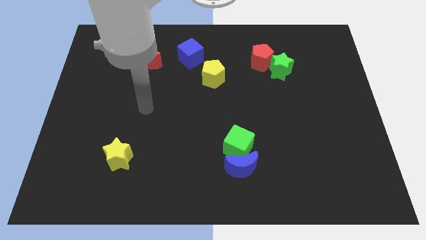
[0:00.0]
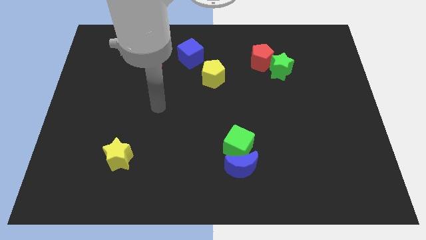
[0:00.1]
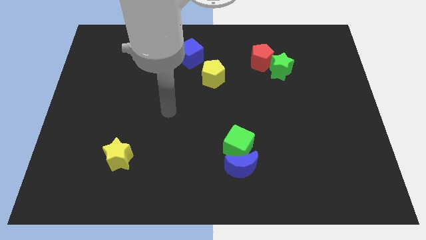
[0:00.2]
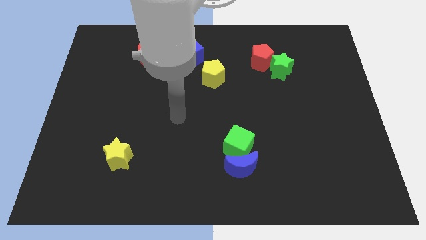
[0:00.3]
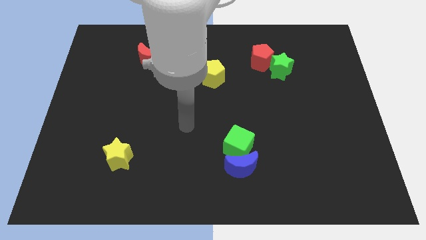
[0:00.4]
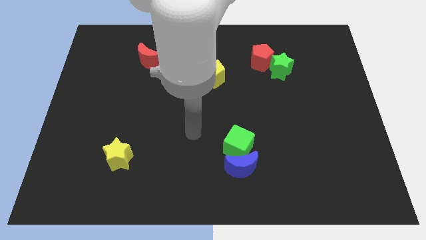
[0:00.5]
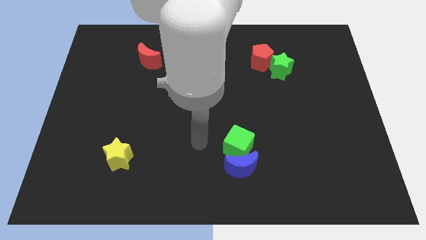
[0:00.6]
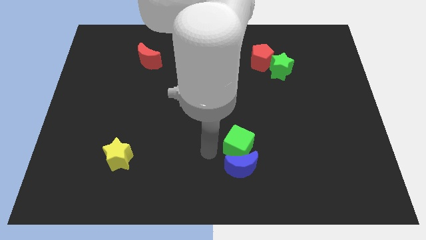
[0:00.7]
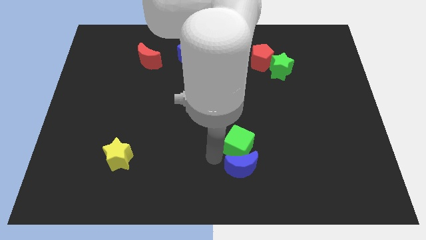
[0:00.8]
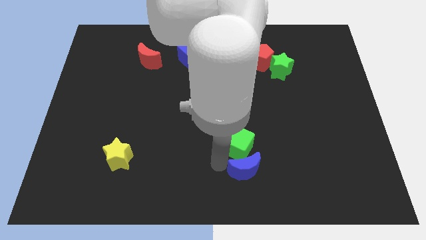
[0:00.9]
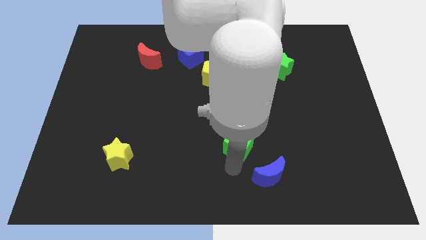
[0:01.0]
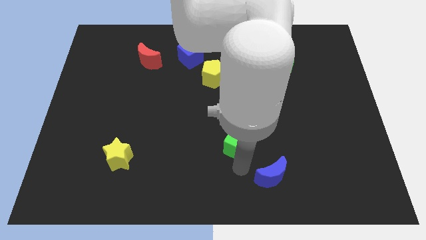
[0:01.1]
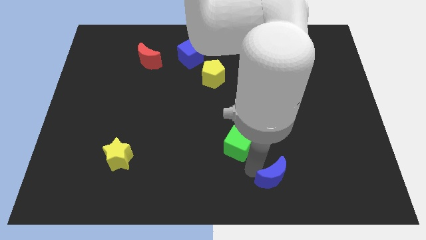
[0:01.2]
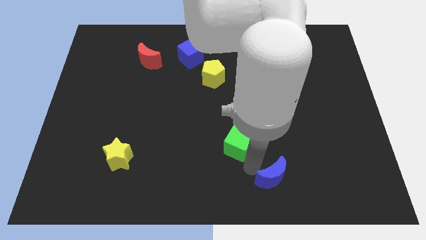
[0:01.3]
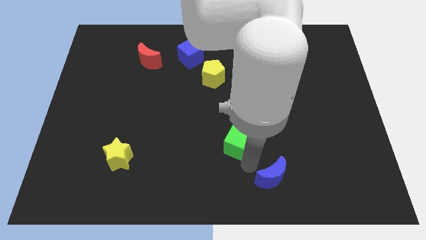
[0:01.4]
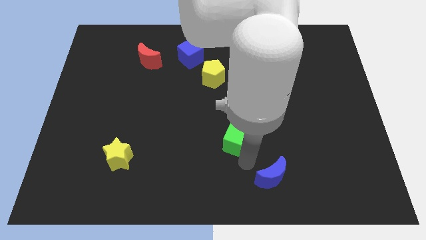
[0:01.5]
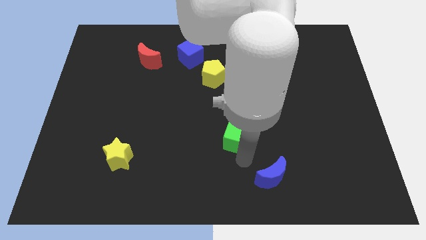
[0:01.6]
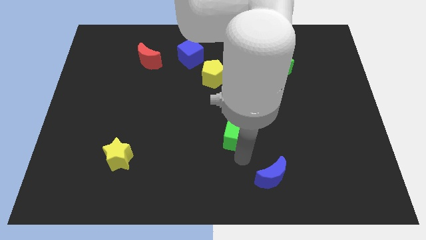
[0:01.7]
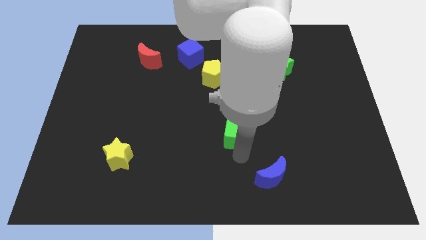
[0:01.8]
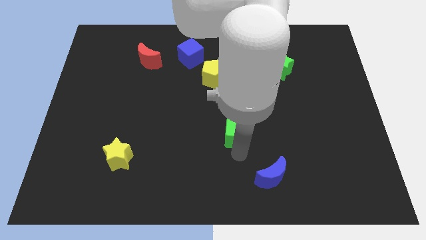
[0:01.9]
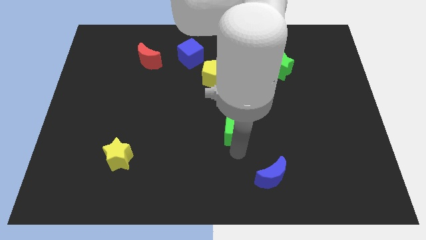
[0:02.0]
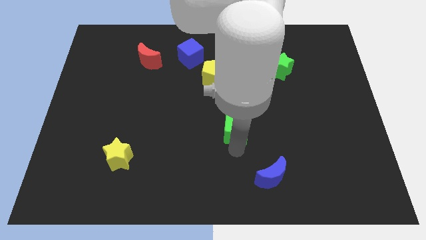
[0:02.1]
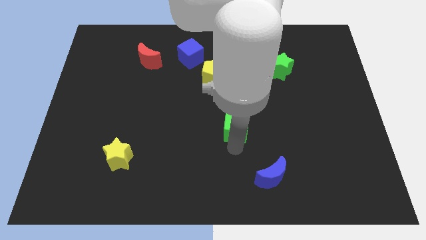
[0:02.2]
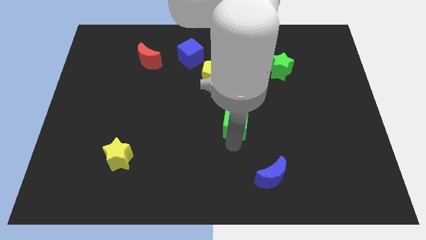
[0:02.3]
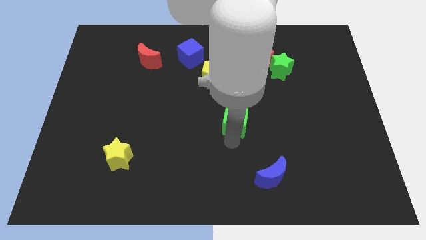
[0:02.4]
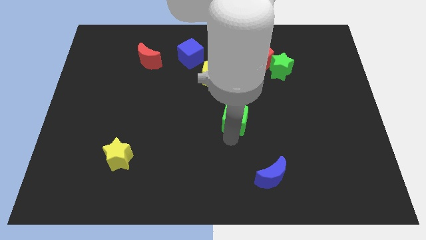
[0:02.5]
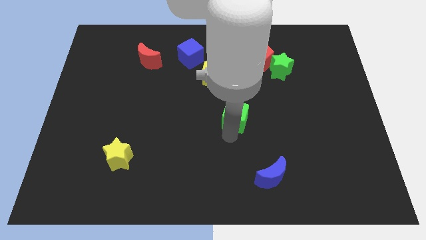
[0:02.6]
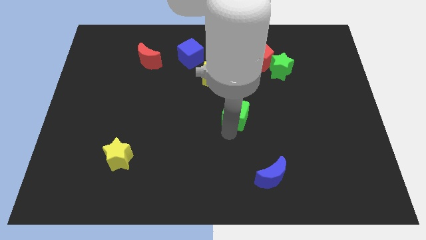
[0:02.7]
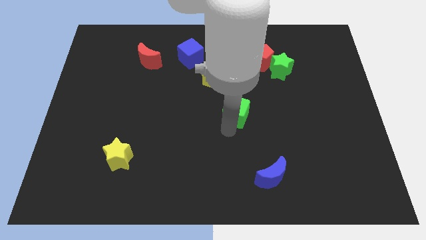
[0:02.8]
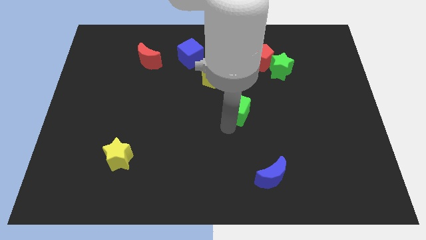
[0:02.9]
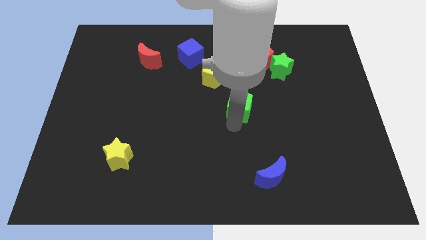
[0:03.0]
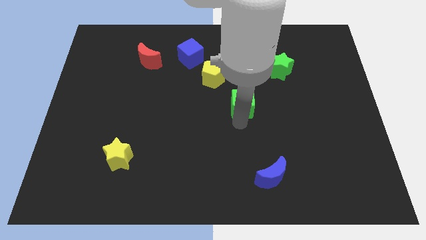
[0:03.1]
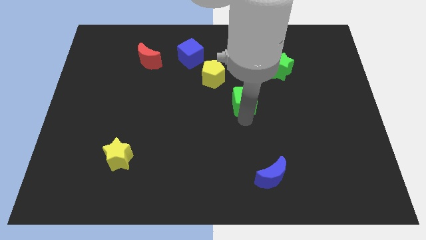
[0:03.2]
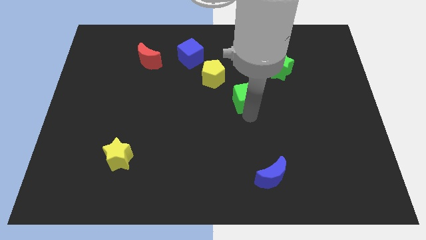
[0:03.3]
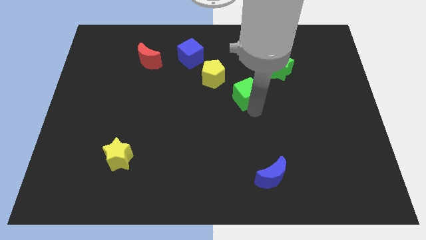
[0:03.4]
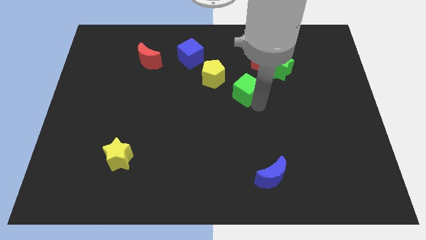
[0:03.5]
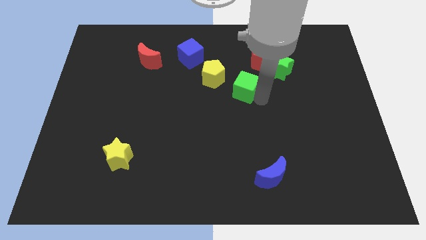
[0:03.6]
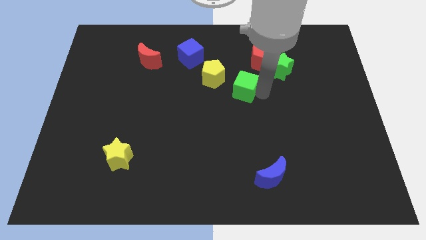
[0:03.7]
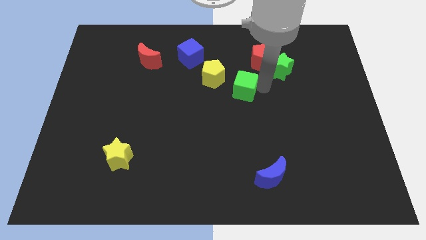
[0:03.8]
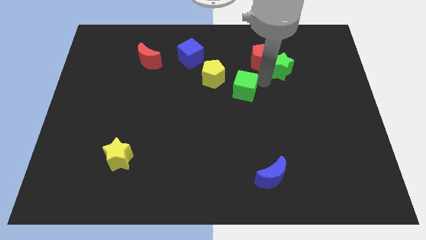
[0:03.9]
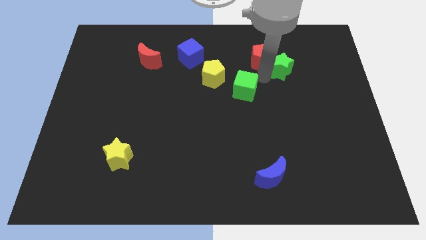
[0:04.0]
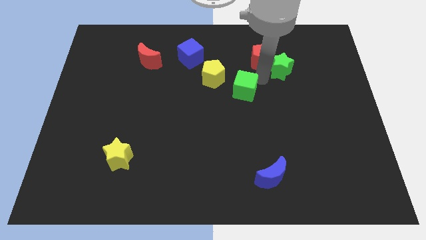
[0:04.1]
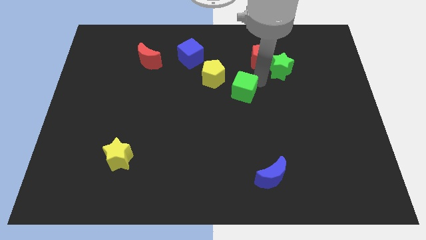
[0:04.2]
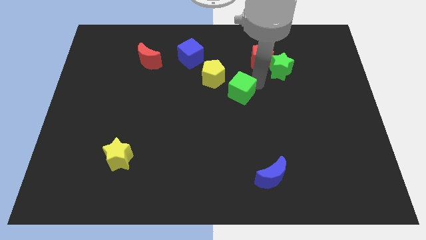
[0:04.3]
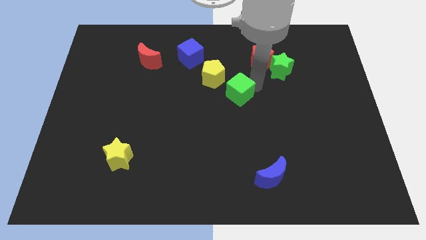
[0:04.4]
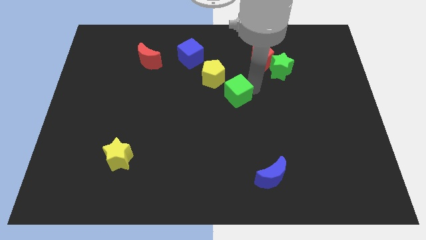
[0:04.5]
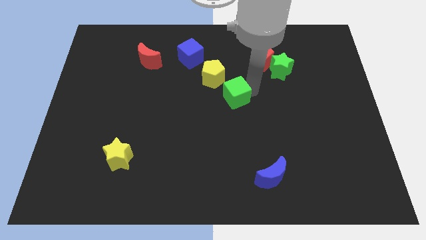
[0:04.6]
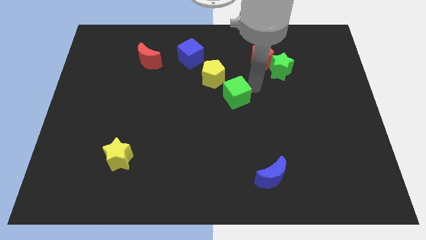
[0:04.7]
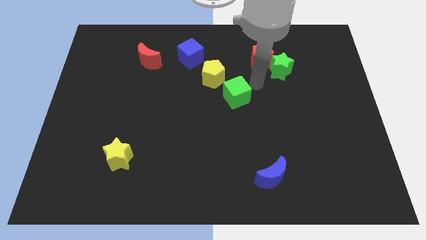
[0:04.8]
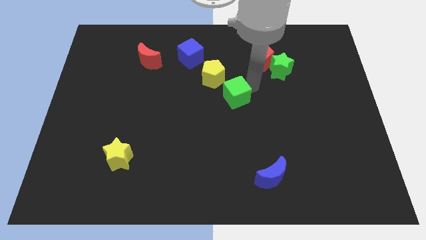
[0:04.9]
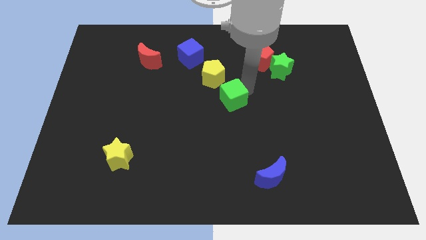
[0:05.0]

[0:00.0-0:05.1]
push the green cube to the bottom of the yellow pentagon

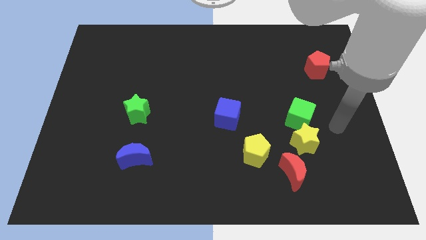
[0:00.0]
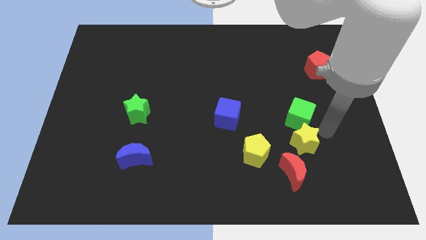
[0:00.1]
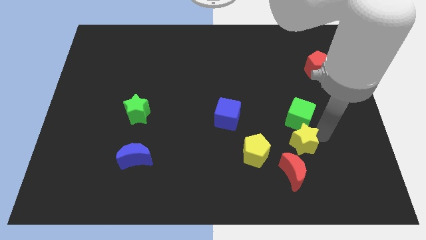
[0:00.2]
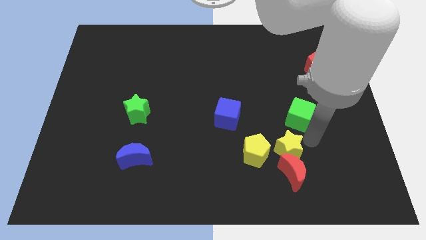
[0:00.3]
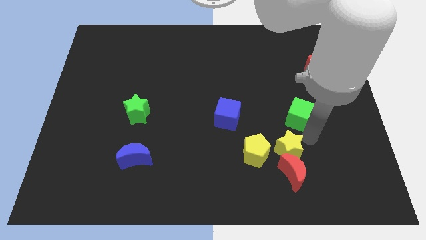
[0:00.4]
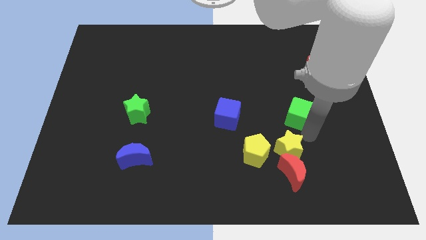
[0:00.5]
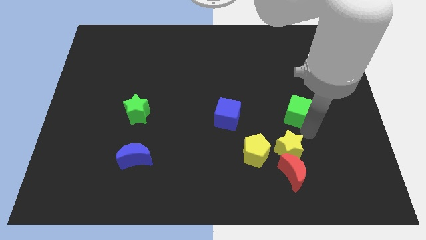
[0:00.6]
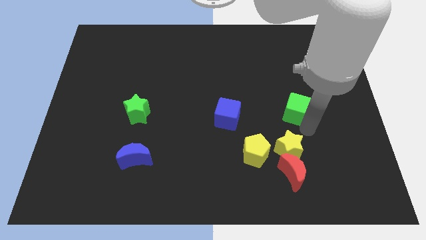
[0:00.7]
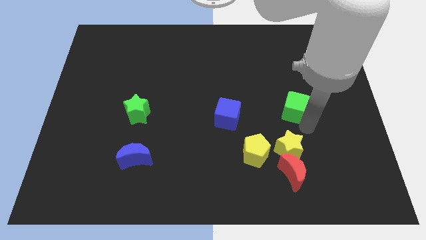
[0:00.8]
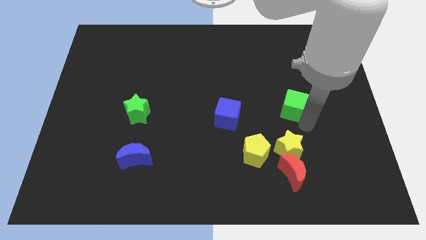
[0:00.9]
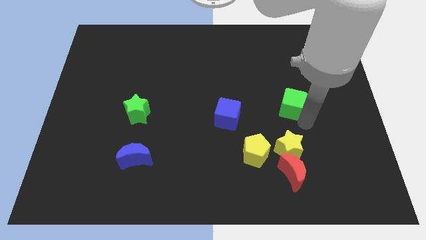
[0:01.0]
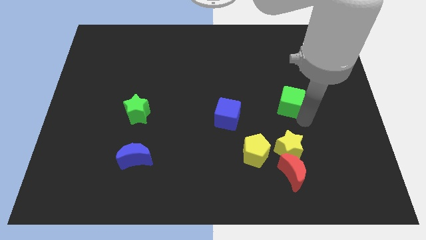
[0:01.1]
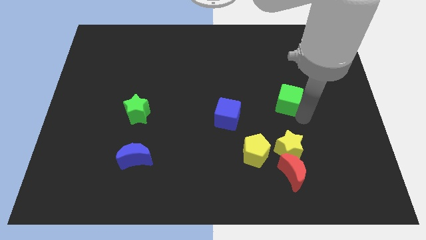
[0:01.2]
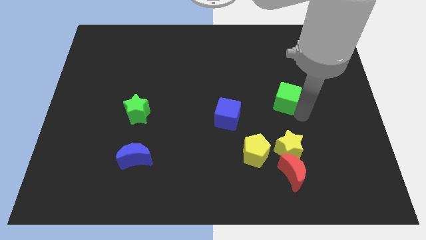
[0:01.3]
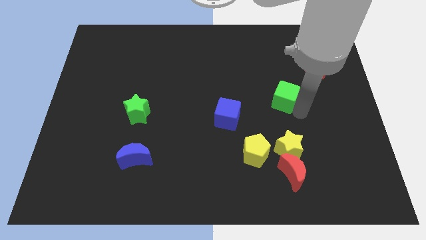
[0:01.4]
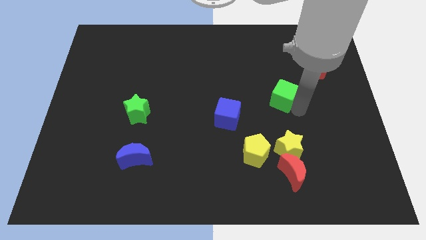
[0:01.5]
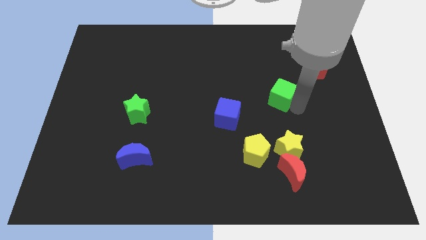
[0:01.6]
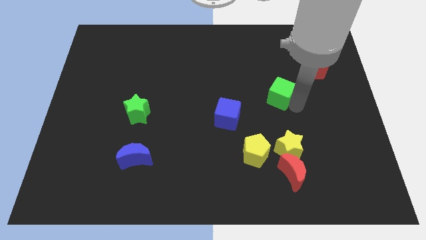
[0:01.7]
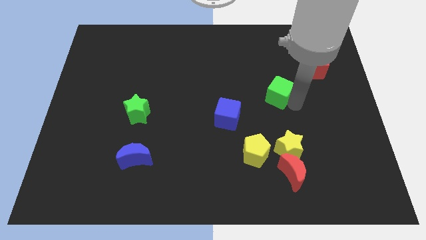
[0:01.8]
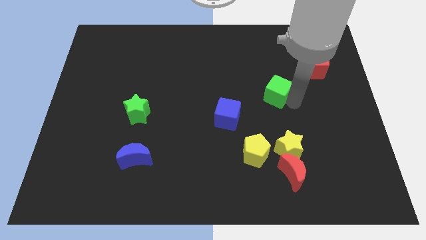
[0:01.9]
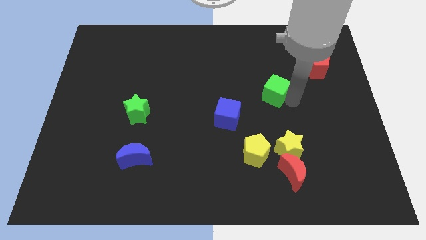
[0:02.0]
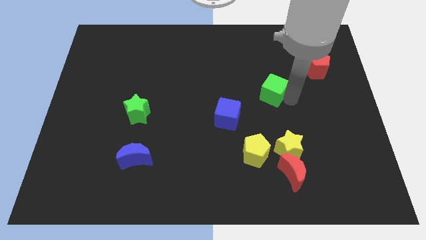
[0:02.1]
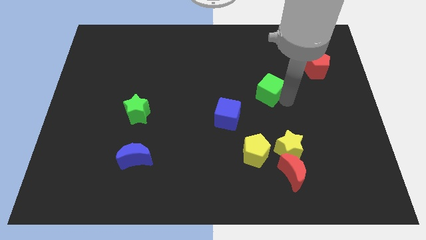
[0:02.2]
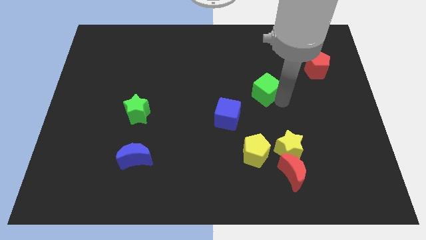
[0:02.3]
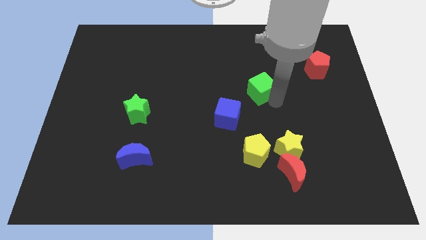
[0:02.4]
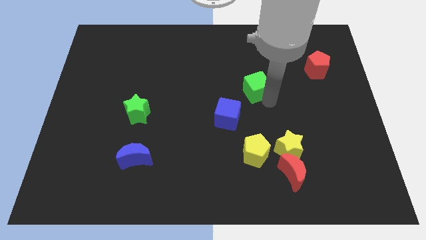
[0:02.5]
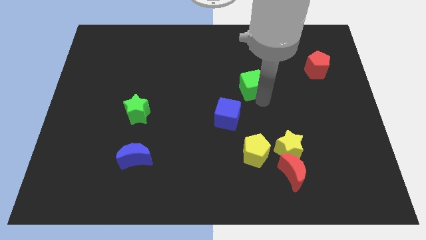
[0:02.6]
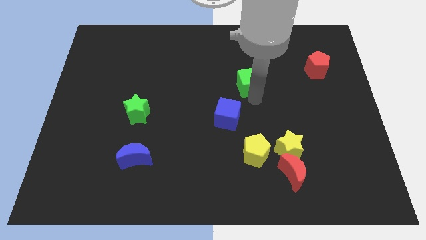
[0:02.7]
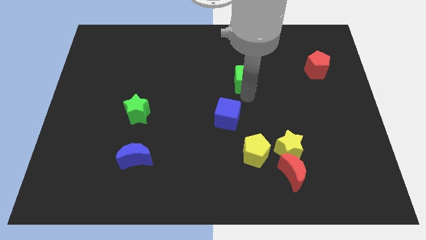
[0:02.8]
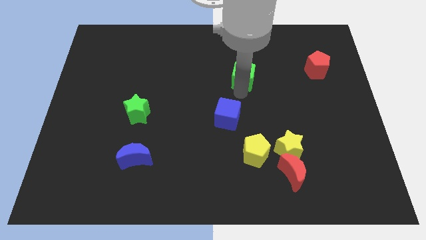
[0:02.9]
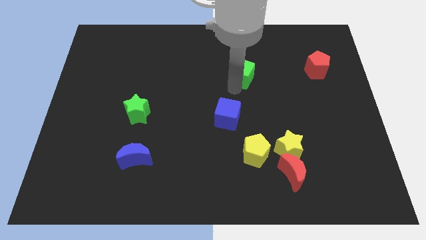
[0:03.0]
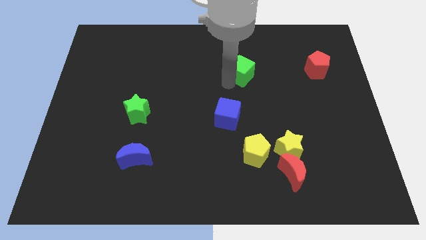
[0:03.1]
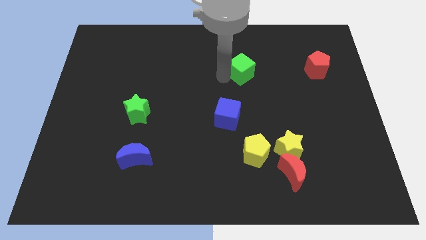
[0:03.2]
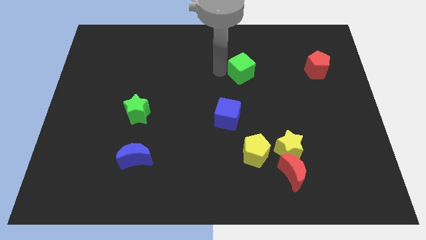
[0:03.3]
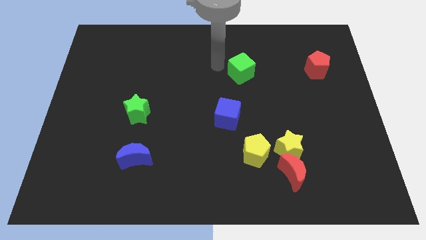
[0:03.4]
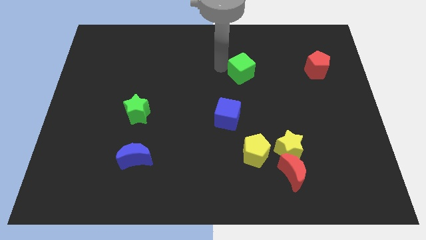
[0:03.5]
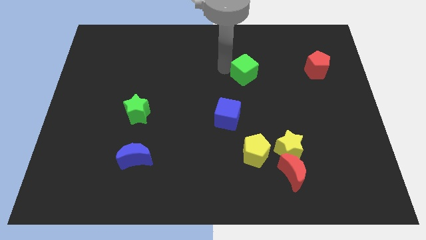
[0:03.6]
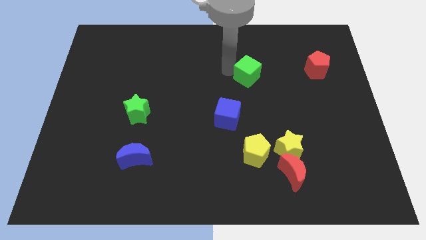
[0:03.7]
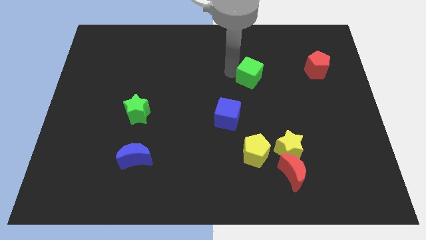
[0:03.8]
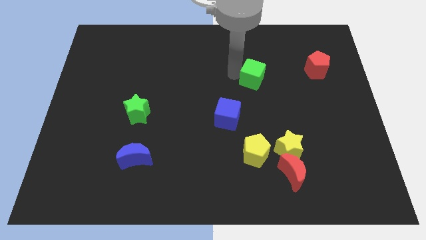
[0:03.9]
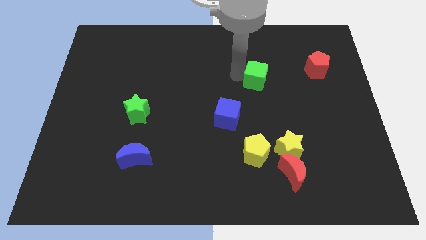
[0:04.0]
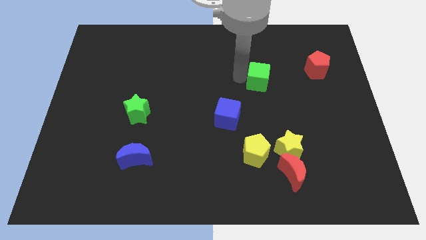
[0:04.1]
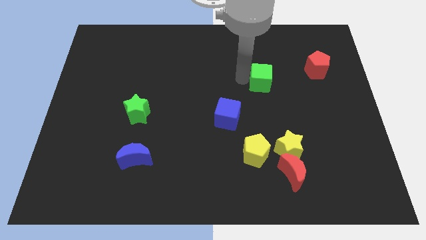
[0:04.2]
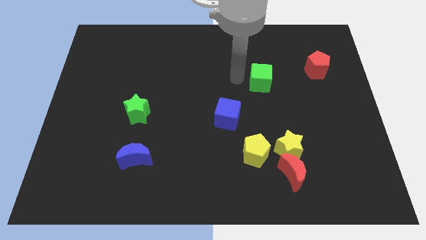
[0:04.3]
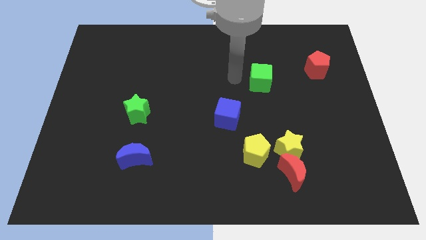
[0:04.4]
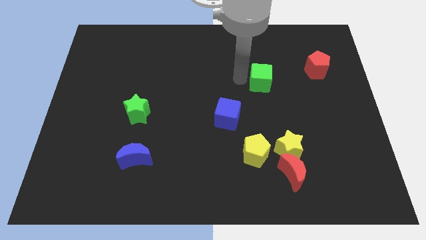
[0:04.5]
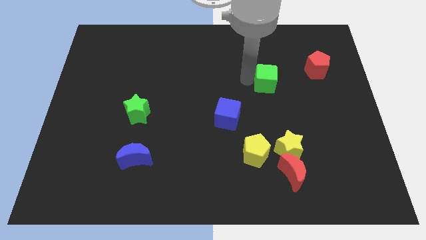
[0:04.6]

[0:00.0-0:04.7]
put the green cube just left of the red pentagon
